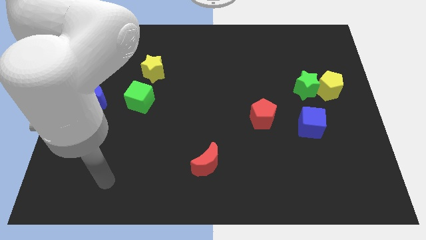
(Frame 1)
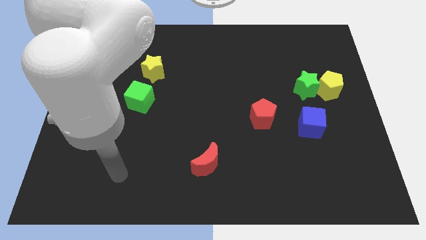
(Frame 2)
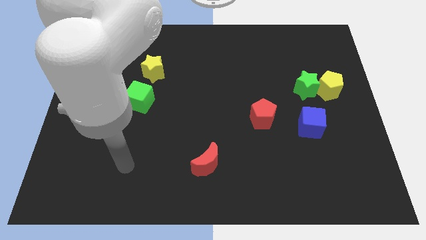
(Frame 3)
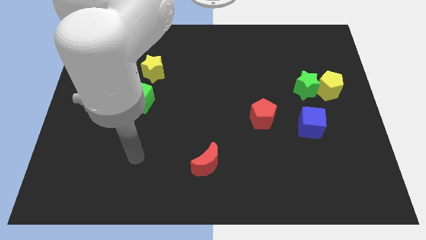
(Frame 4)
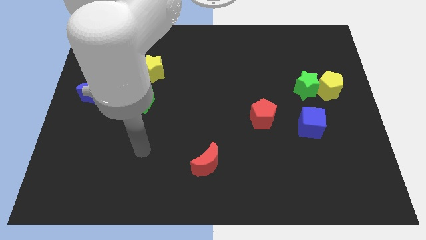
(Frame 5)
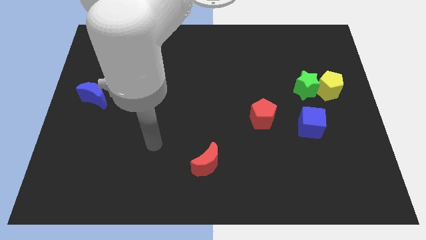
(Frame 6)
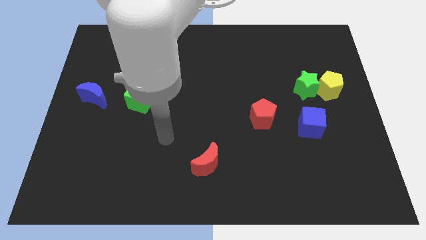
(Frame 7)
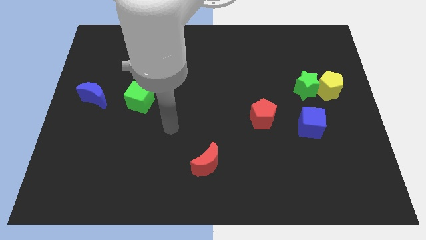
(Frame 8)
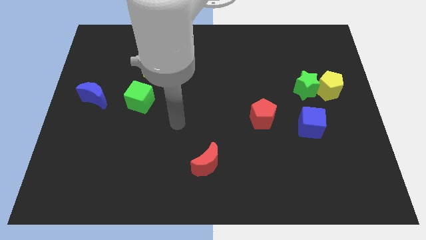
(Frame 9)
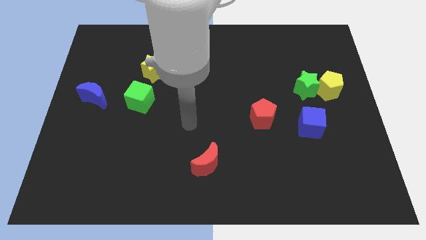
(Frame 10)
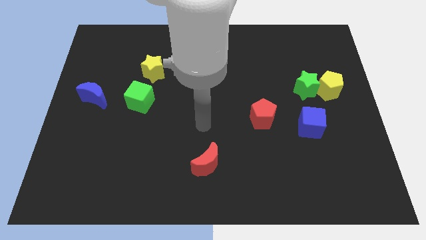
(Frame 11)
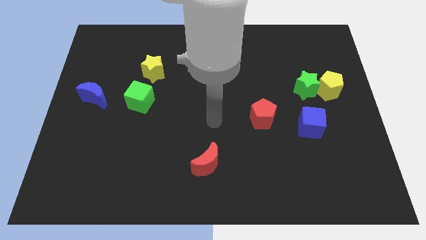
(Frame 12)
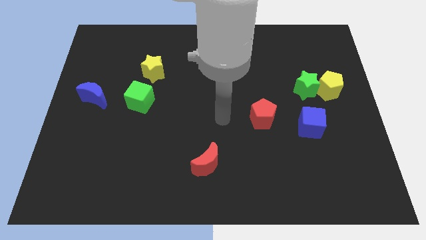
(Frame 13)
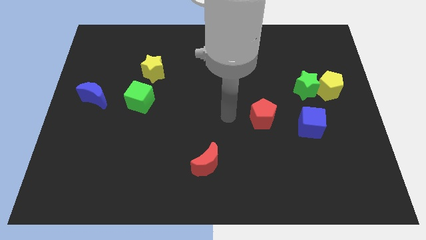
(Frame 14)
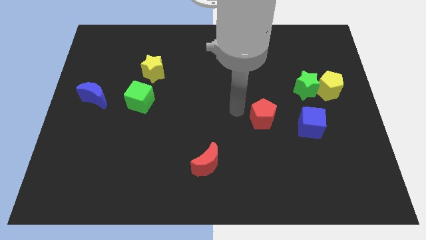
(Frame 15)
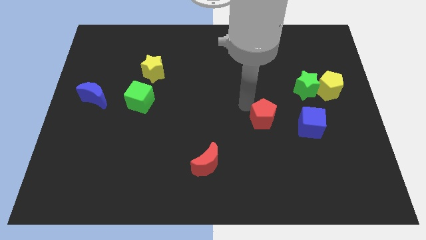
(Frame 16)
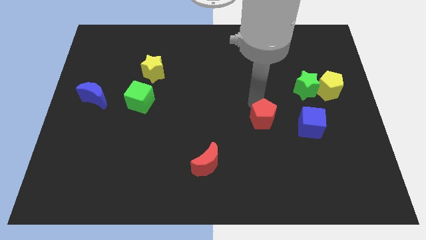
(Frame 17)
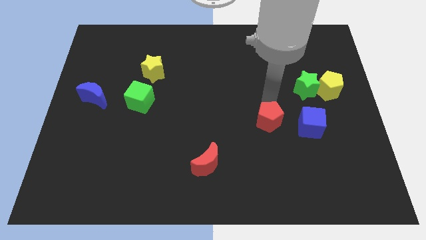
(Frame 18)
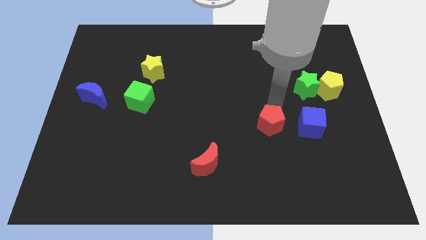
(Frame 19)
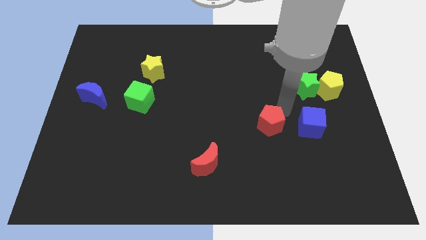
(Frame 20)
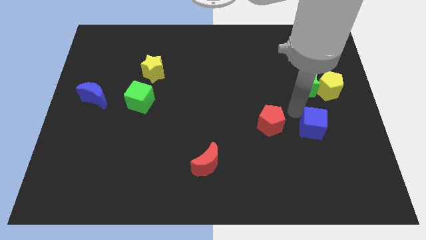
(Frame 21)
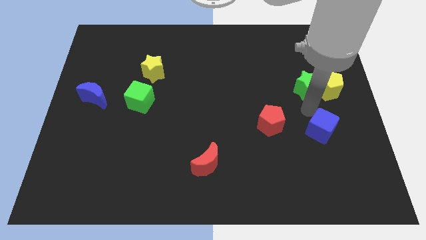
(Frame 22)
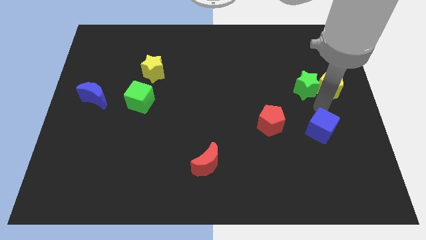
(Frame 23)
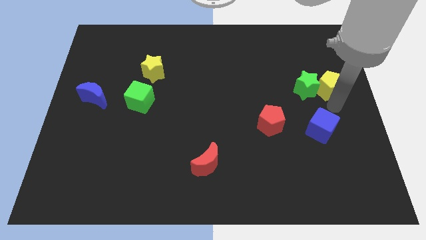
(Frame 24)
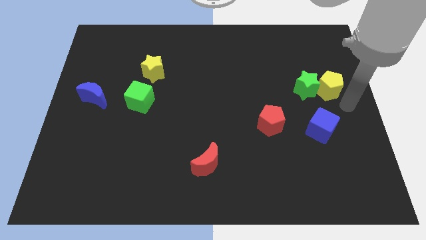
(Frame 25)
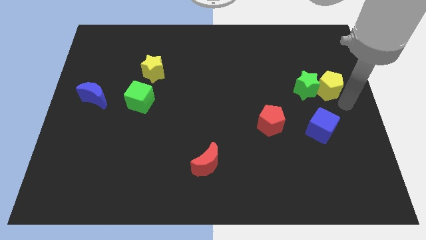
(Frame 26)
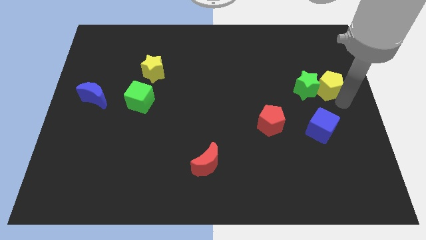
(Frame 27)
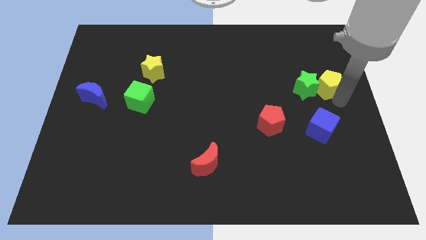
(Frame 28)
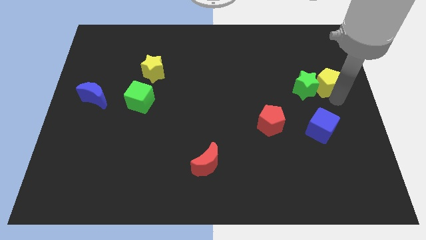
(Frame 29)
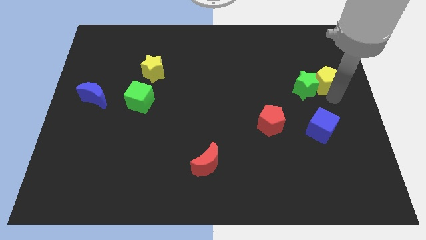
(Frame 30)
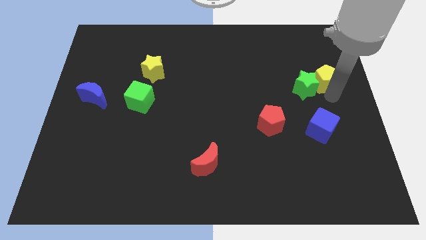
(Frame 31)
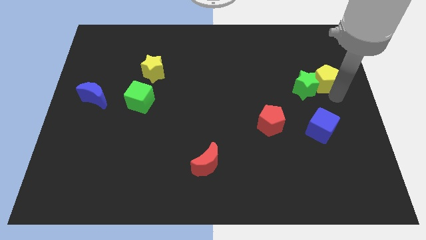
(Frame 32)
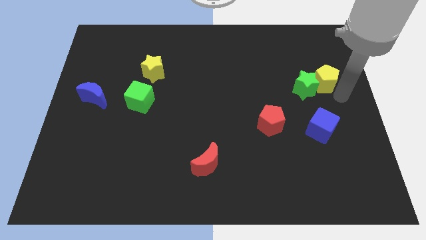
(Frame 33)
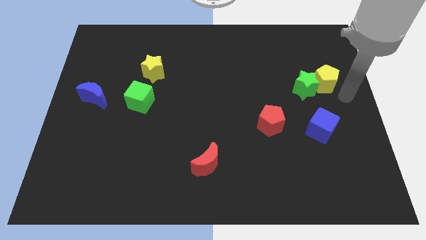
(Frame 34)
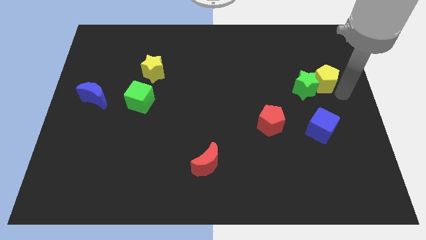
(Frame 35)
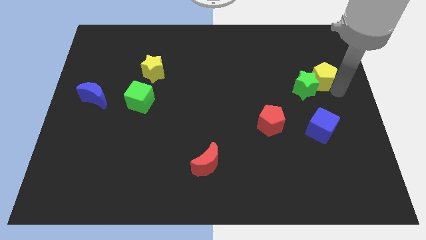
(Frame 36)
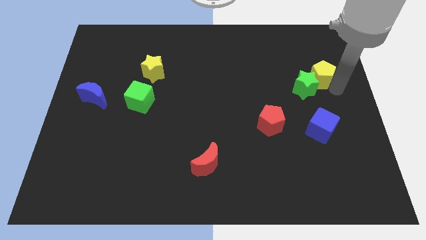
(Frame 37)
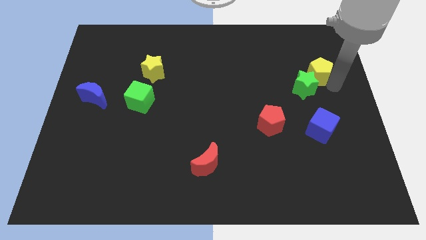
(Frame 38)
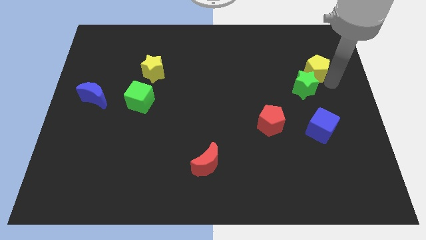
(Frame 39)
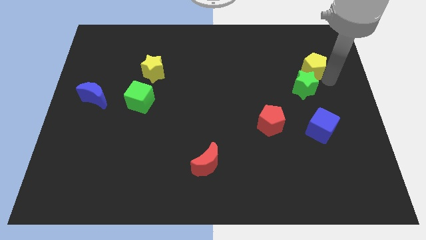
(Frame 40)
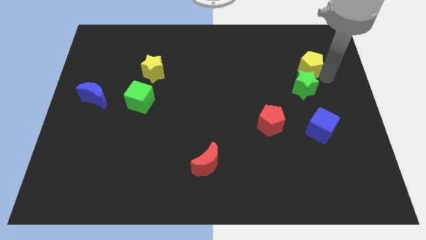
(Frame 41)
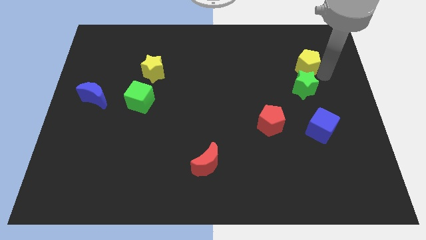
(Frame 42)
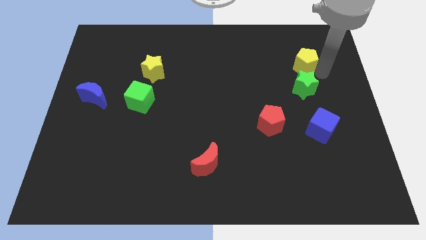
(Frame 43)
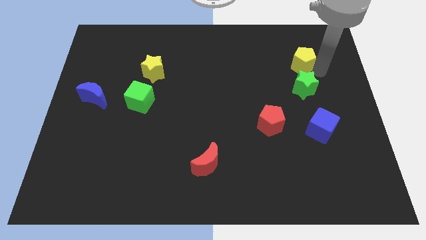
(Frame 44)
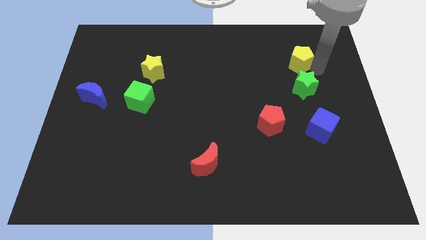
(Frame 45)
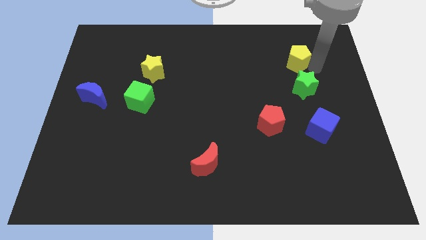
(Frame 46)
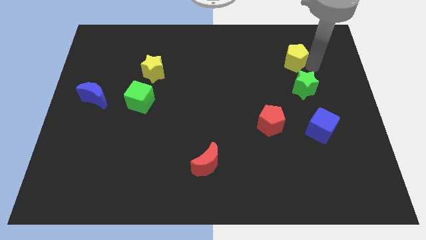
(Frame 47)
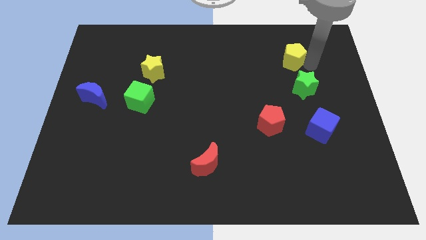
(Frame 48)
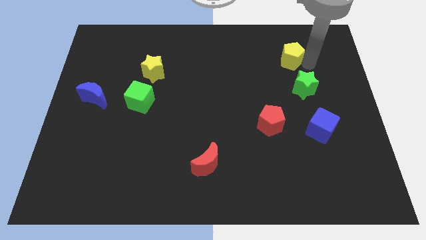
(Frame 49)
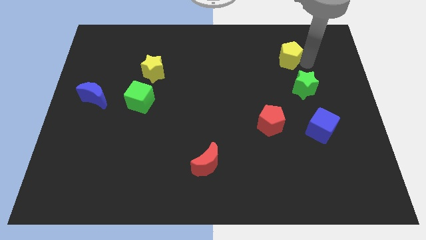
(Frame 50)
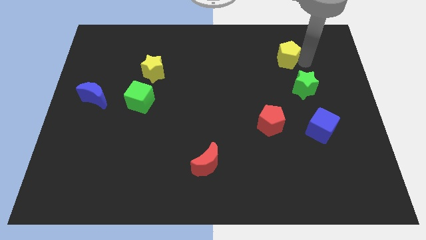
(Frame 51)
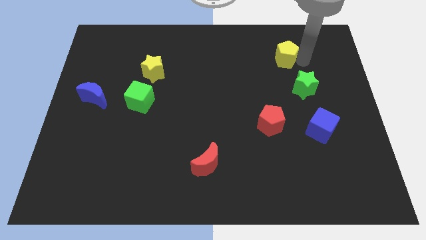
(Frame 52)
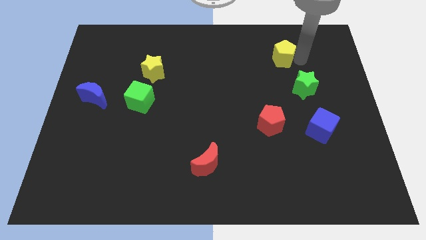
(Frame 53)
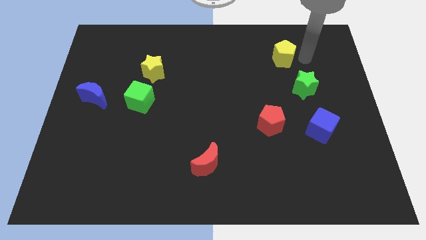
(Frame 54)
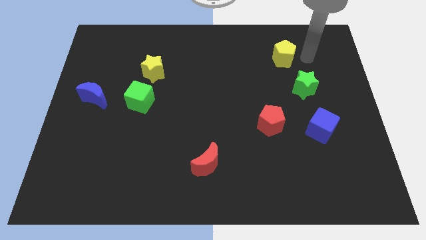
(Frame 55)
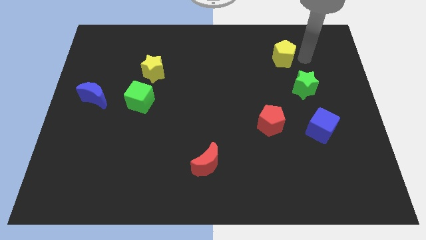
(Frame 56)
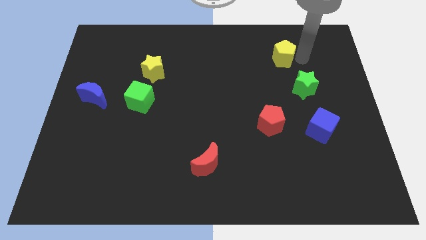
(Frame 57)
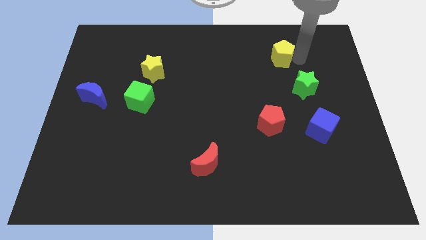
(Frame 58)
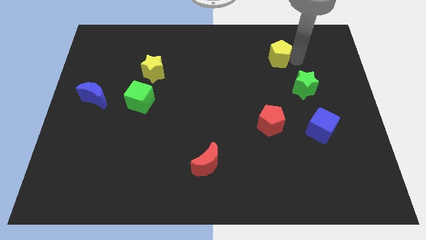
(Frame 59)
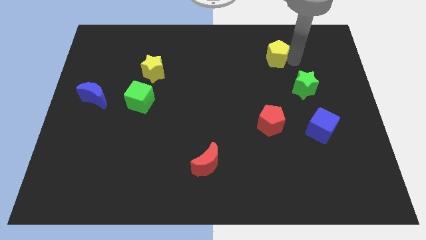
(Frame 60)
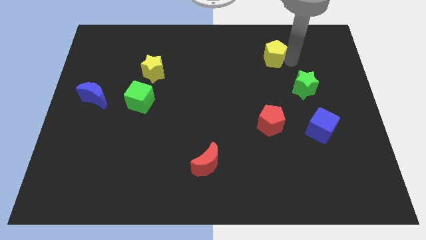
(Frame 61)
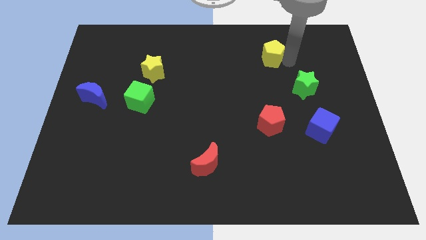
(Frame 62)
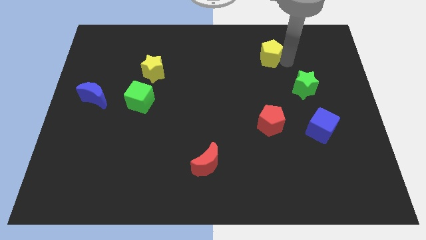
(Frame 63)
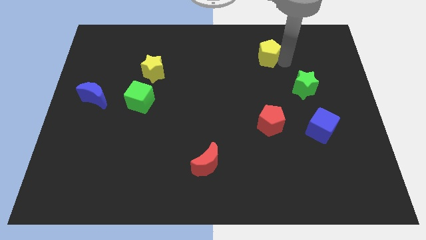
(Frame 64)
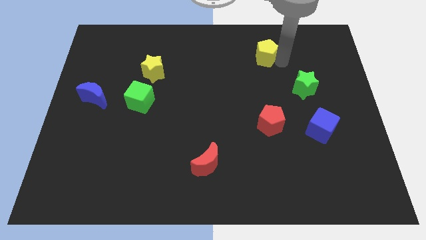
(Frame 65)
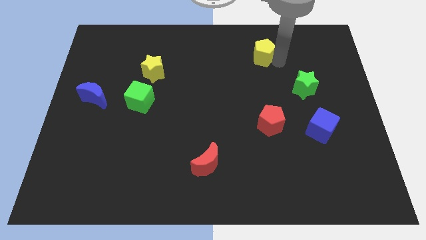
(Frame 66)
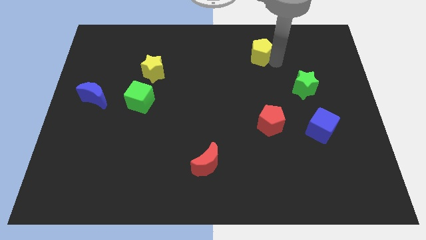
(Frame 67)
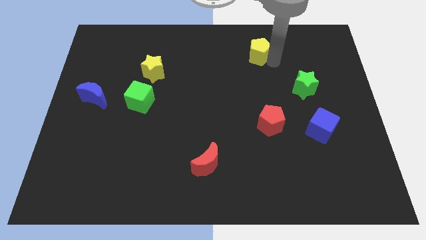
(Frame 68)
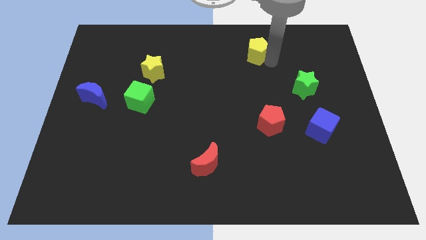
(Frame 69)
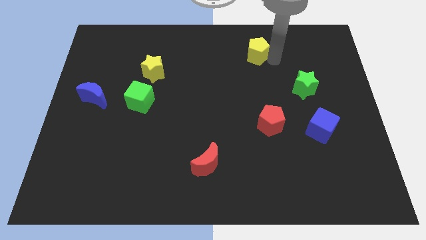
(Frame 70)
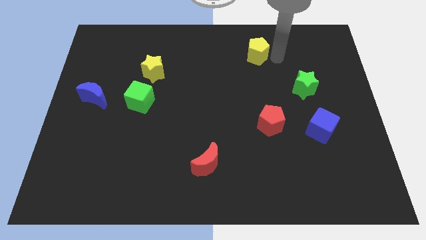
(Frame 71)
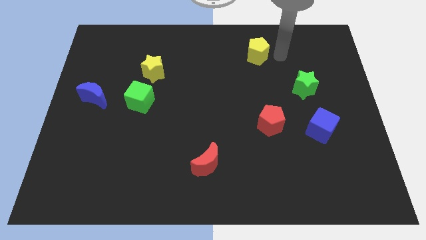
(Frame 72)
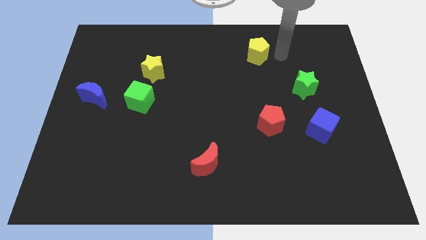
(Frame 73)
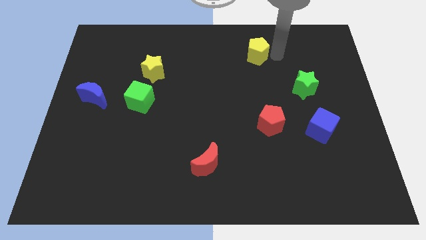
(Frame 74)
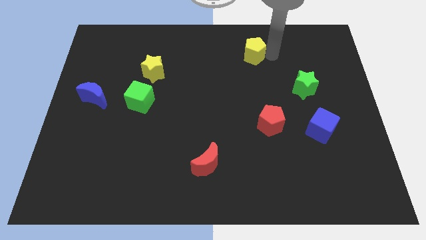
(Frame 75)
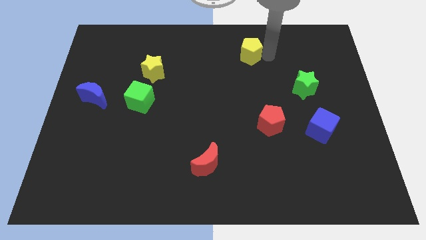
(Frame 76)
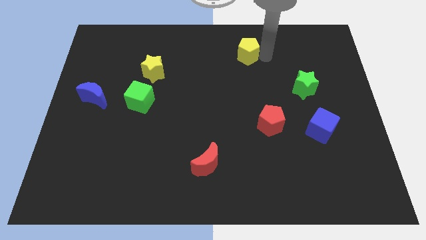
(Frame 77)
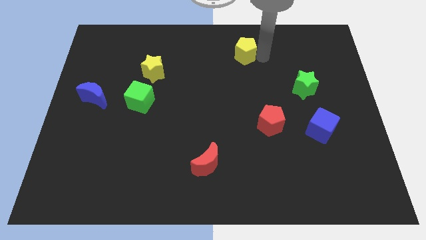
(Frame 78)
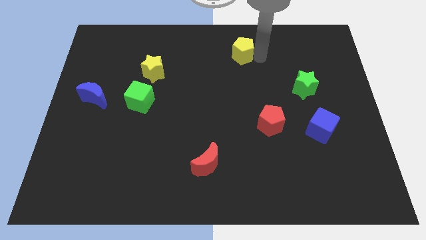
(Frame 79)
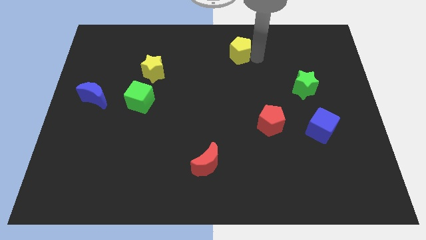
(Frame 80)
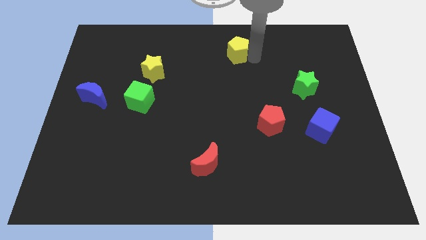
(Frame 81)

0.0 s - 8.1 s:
slide the yellow pentagon to the top
